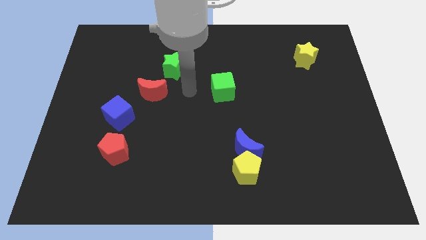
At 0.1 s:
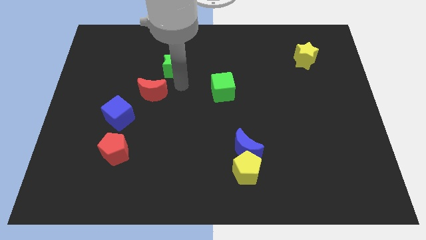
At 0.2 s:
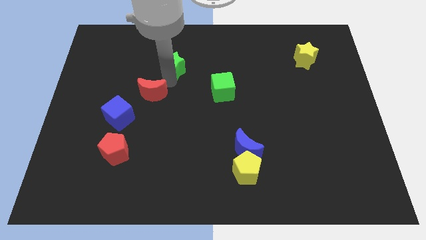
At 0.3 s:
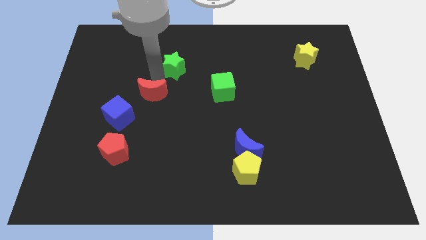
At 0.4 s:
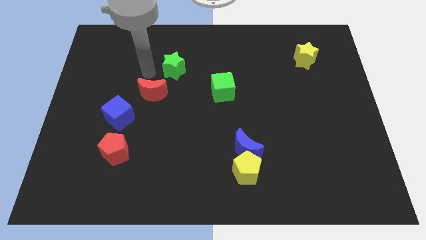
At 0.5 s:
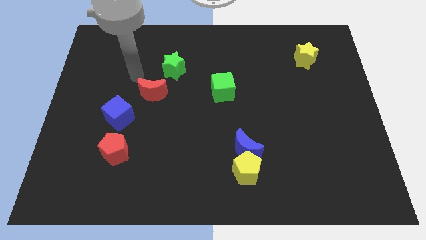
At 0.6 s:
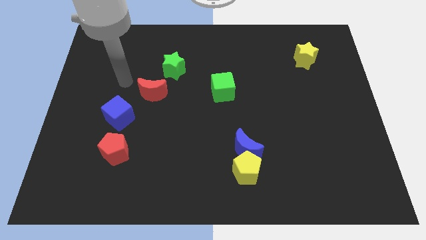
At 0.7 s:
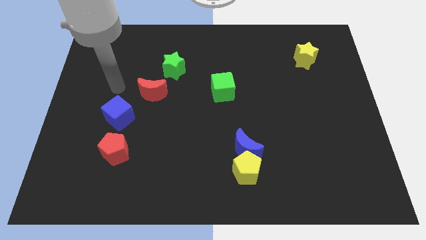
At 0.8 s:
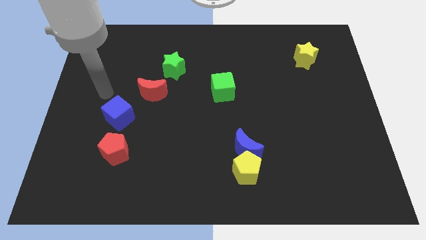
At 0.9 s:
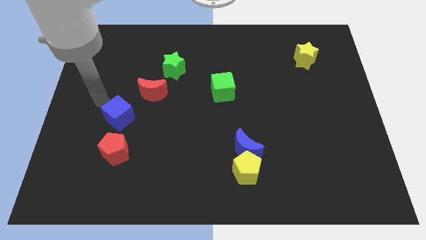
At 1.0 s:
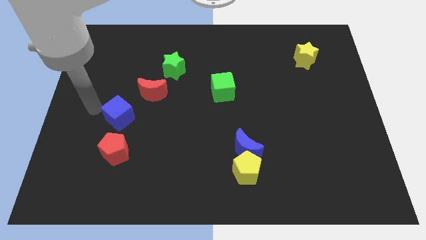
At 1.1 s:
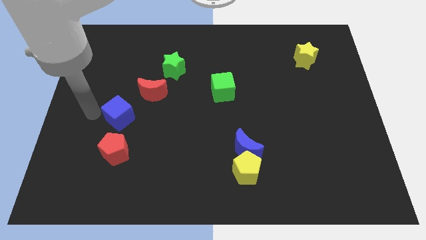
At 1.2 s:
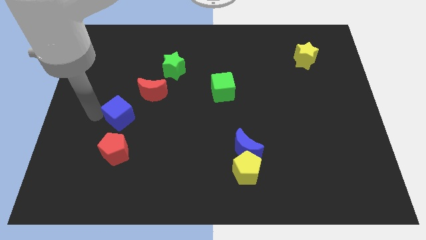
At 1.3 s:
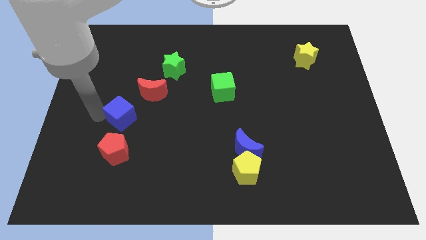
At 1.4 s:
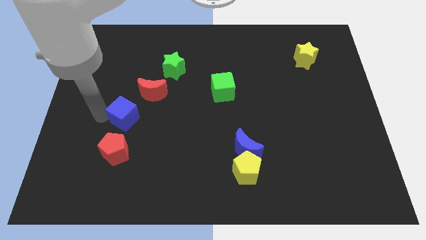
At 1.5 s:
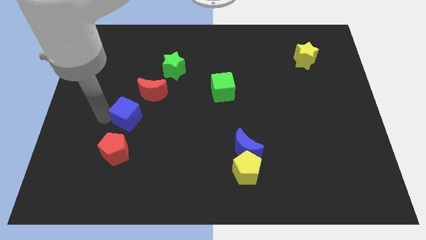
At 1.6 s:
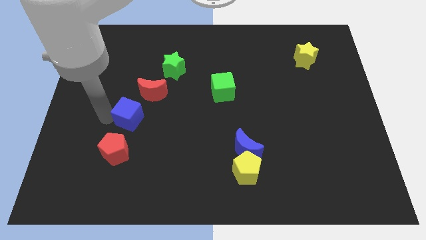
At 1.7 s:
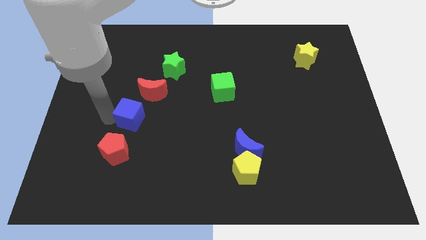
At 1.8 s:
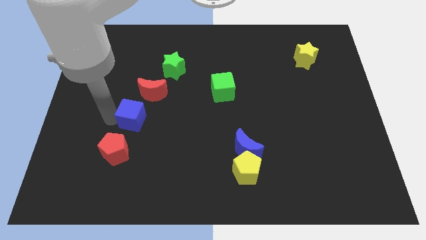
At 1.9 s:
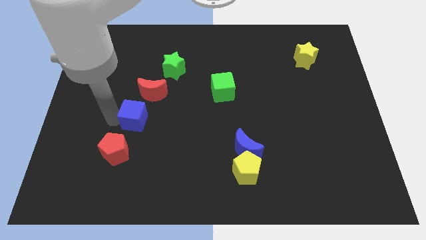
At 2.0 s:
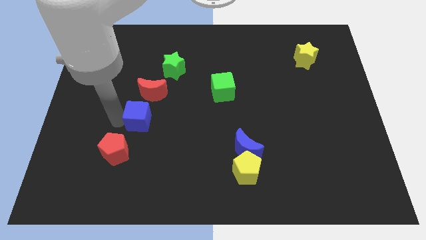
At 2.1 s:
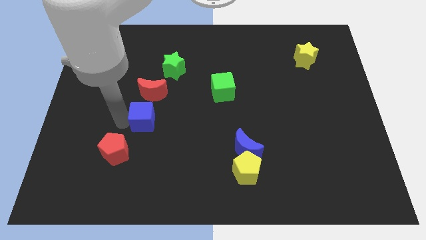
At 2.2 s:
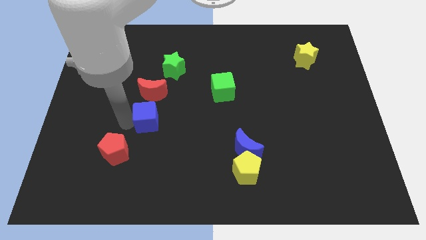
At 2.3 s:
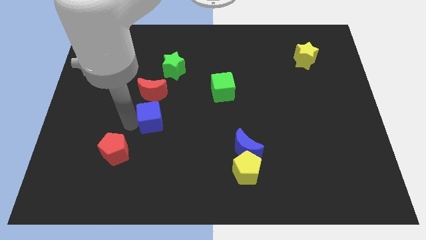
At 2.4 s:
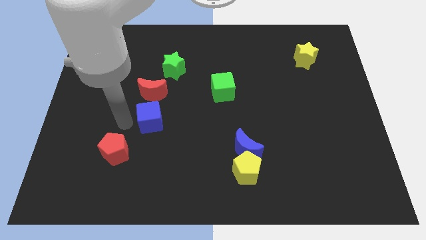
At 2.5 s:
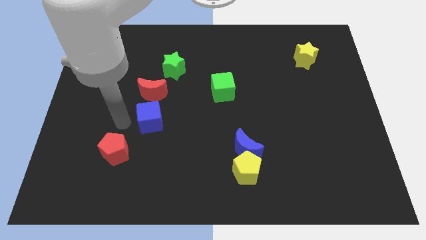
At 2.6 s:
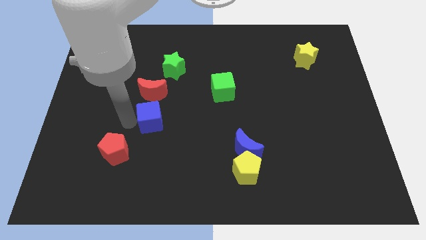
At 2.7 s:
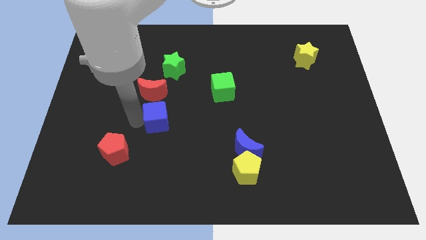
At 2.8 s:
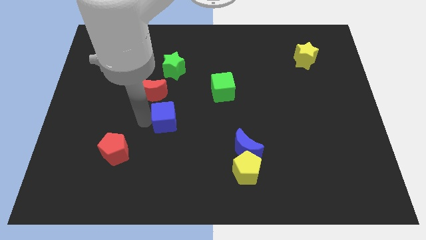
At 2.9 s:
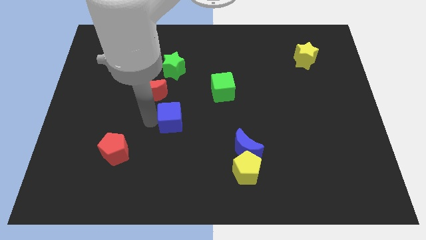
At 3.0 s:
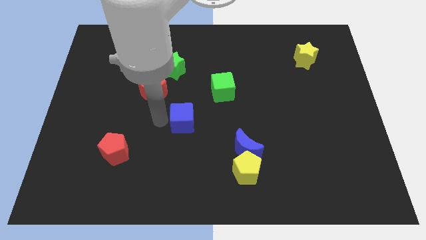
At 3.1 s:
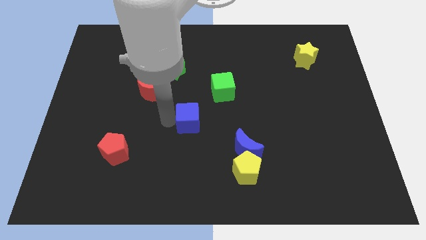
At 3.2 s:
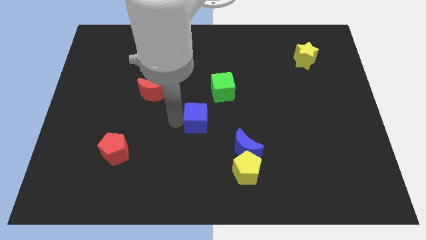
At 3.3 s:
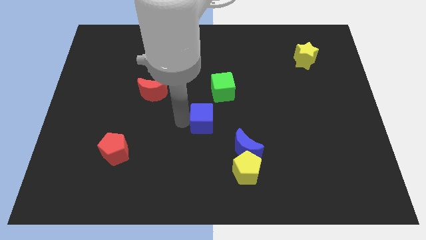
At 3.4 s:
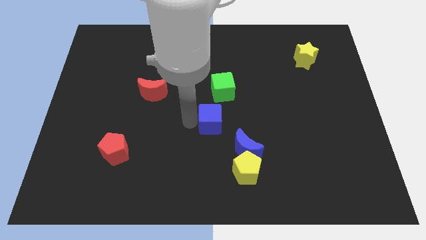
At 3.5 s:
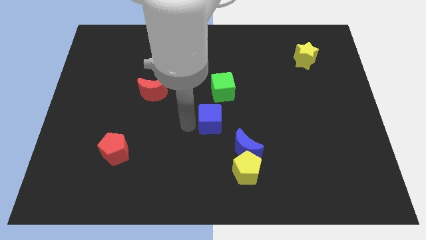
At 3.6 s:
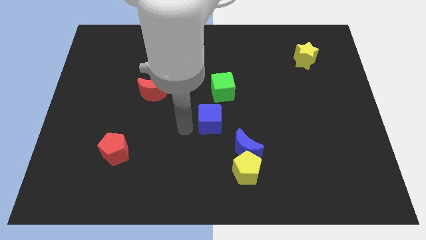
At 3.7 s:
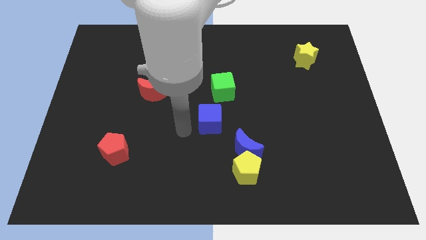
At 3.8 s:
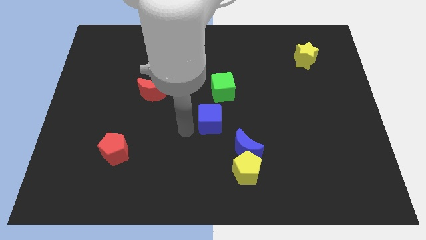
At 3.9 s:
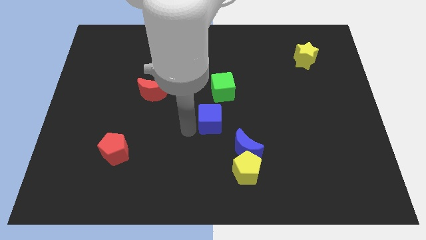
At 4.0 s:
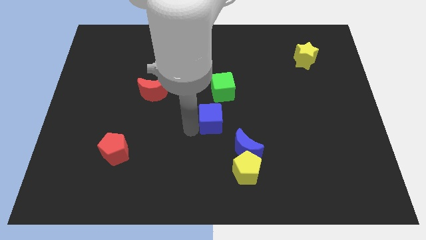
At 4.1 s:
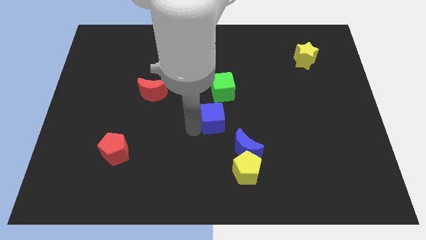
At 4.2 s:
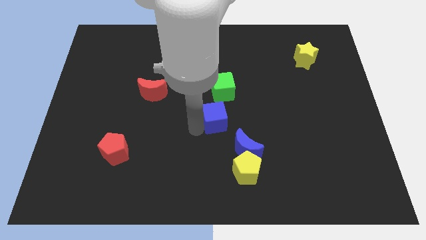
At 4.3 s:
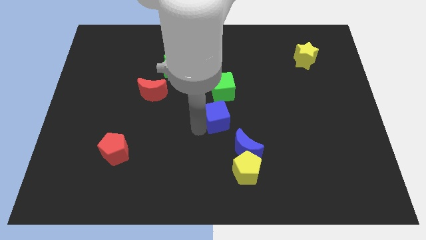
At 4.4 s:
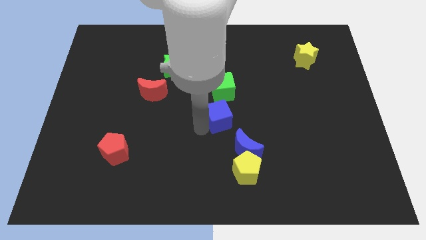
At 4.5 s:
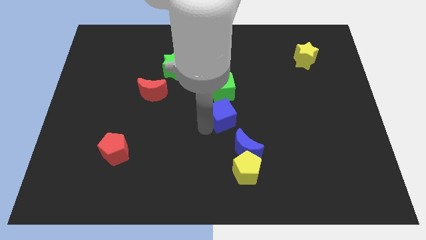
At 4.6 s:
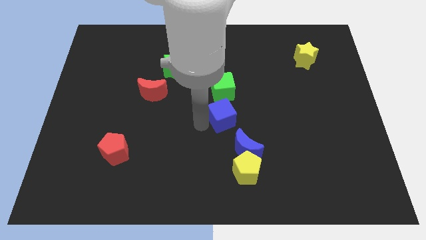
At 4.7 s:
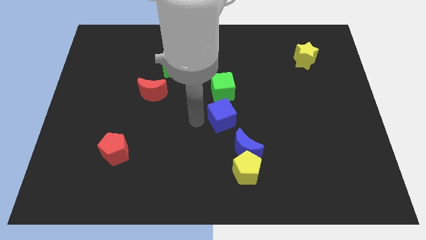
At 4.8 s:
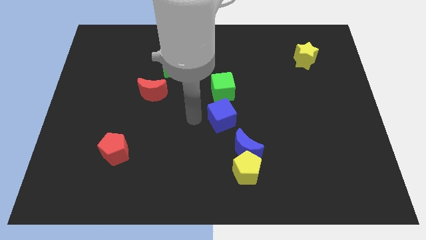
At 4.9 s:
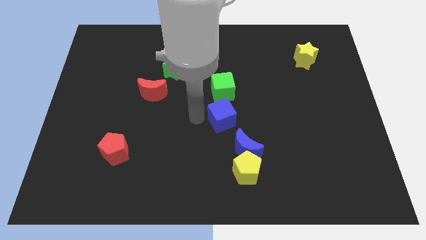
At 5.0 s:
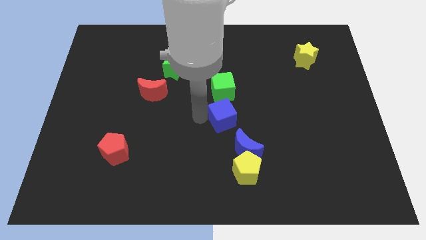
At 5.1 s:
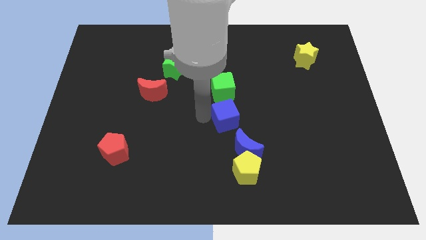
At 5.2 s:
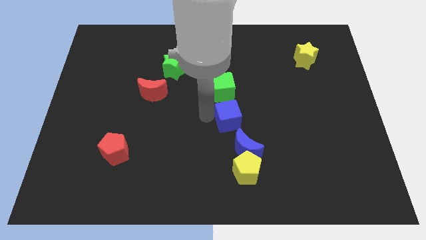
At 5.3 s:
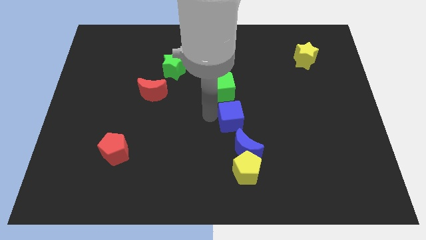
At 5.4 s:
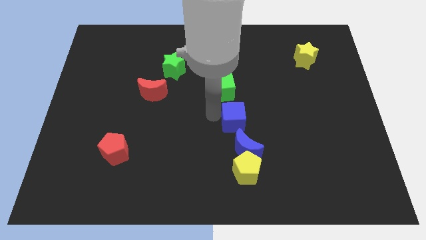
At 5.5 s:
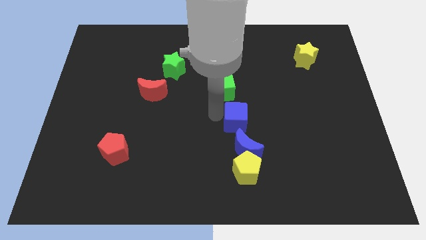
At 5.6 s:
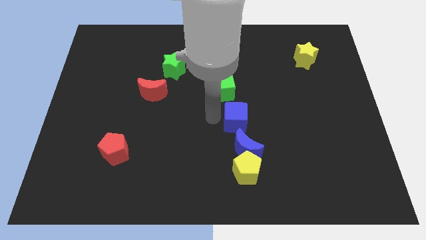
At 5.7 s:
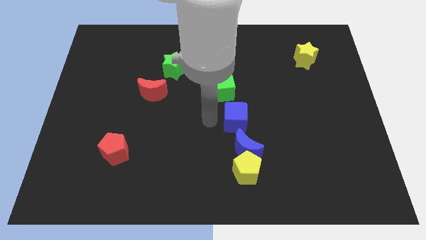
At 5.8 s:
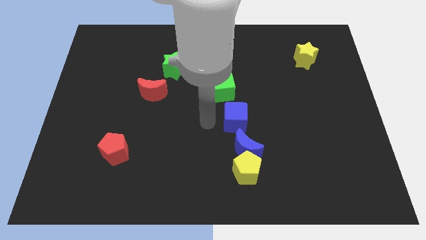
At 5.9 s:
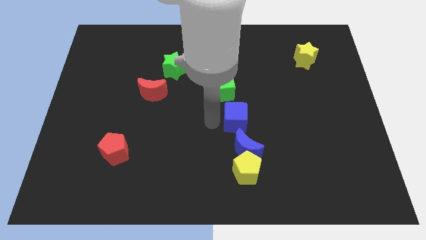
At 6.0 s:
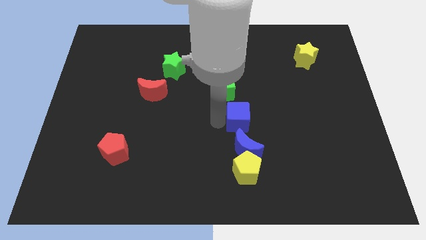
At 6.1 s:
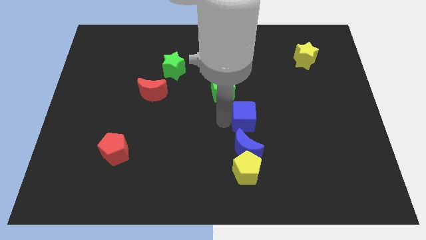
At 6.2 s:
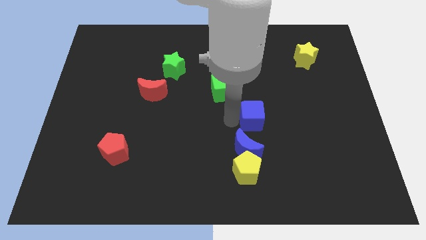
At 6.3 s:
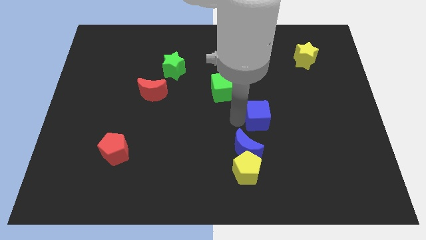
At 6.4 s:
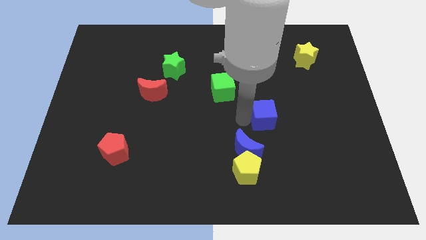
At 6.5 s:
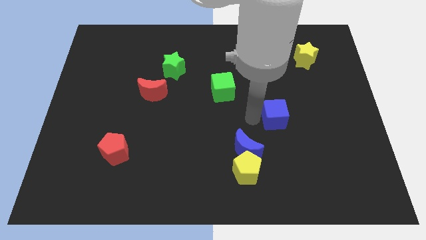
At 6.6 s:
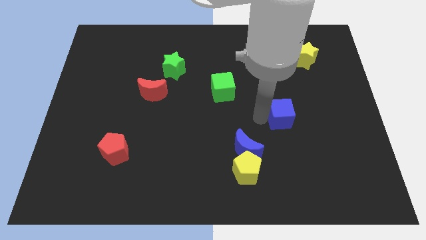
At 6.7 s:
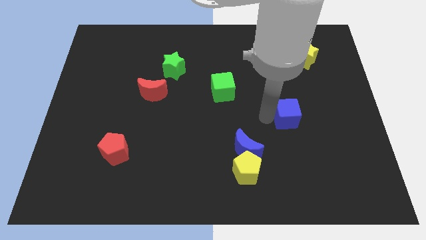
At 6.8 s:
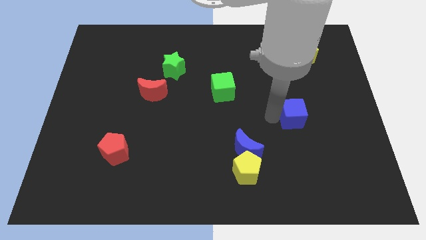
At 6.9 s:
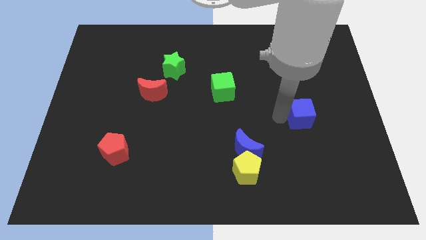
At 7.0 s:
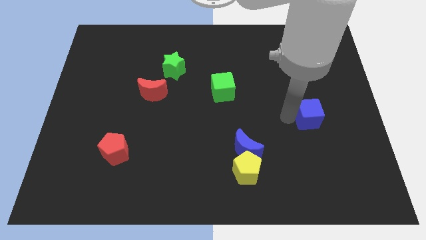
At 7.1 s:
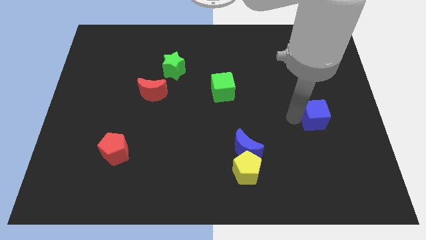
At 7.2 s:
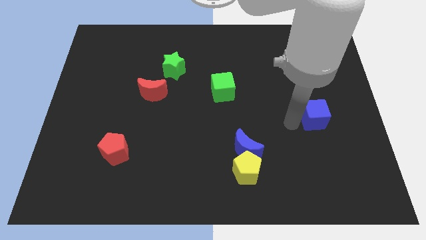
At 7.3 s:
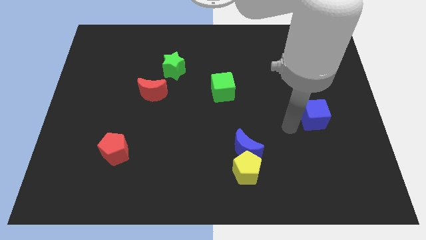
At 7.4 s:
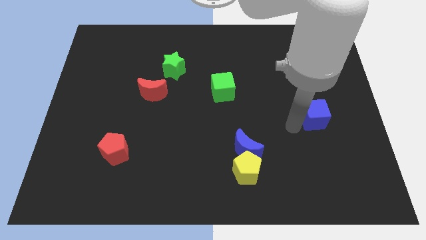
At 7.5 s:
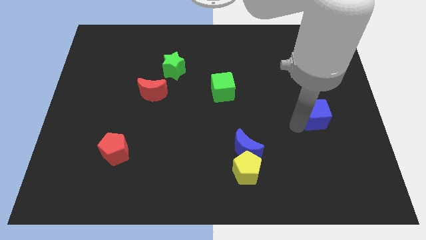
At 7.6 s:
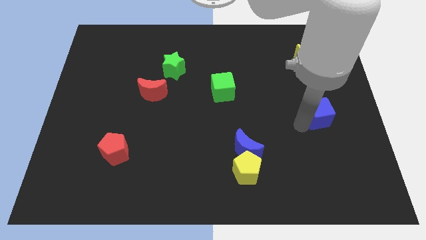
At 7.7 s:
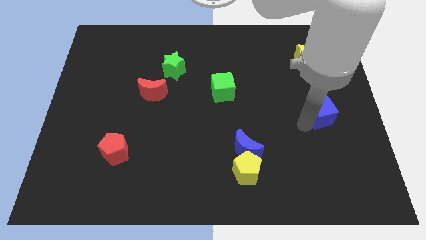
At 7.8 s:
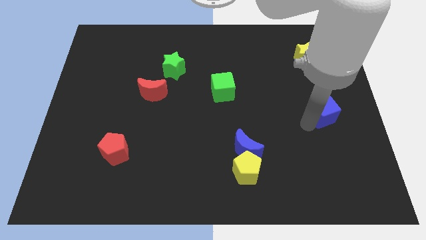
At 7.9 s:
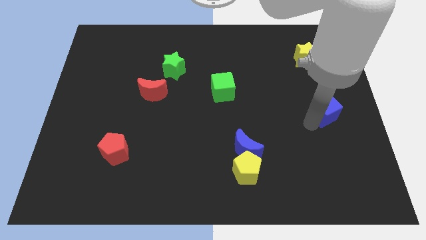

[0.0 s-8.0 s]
put the blue cube to the right side of the board
